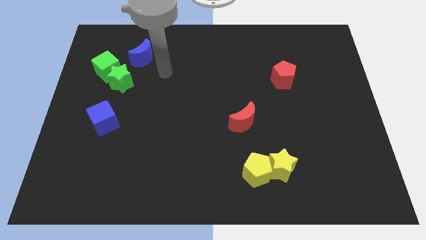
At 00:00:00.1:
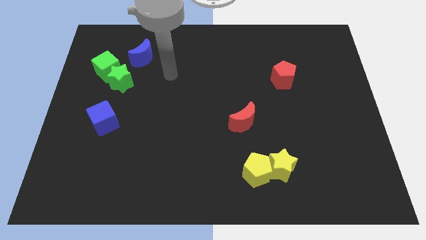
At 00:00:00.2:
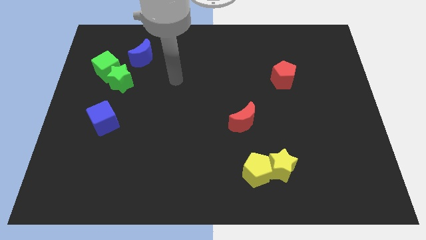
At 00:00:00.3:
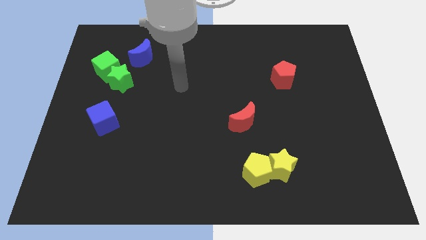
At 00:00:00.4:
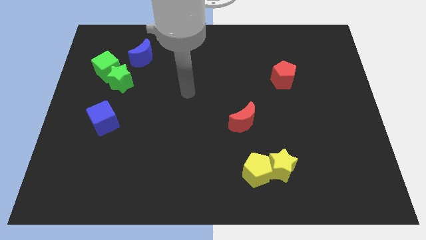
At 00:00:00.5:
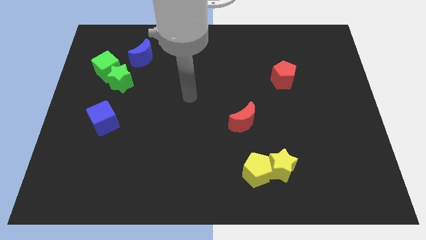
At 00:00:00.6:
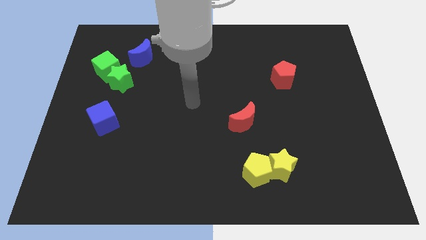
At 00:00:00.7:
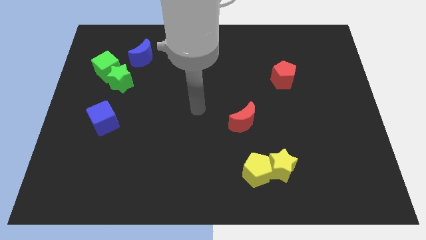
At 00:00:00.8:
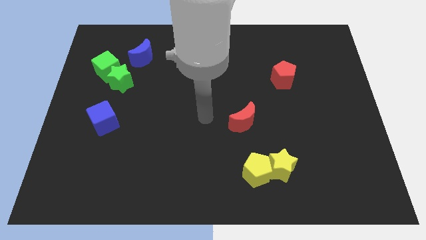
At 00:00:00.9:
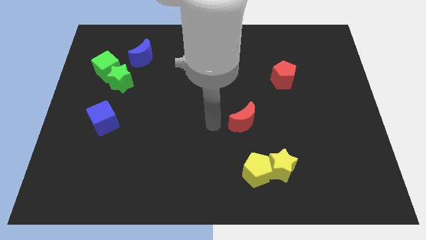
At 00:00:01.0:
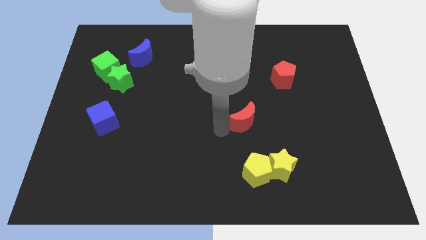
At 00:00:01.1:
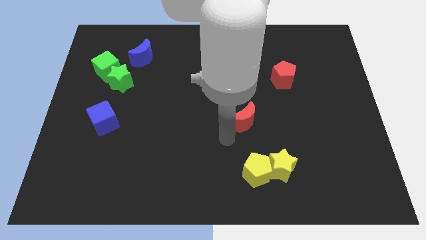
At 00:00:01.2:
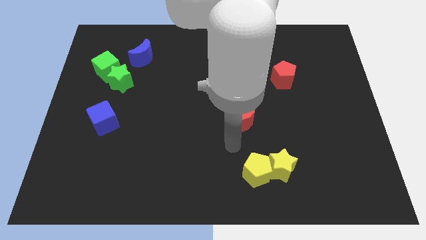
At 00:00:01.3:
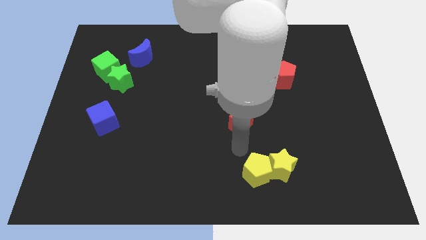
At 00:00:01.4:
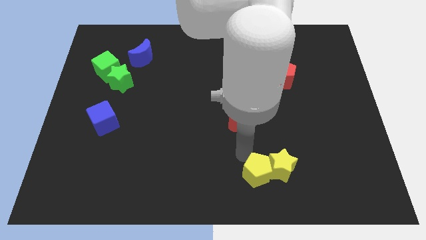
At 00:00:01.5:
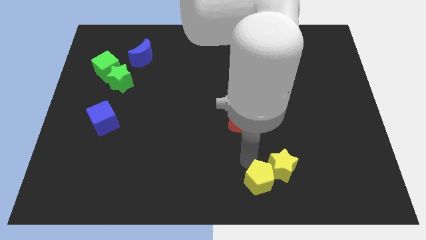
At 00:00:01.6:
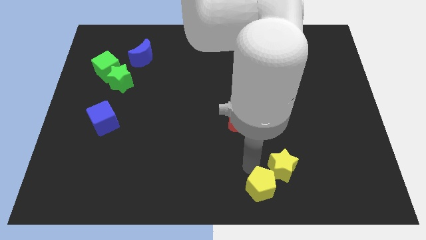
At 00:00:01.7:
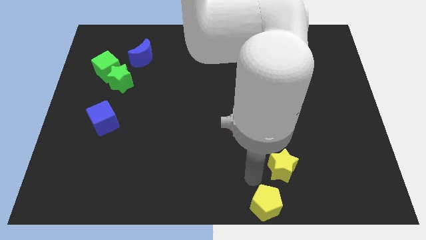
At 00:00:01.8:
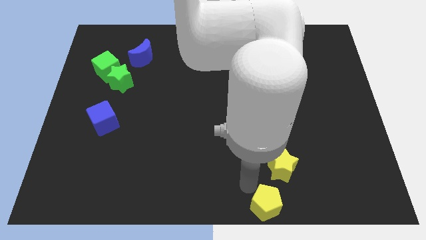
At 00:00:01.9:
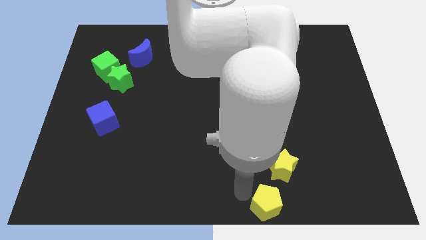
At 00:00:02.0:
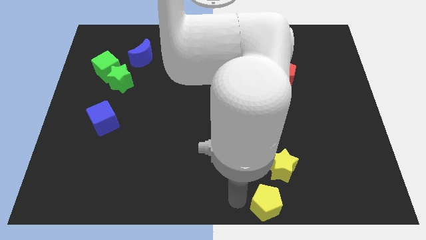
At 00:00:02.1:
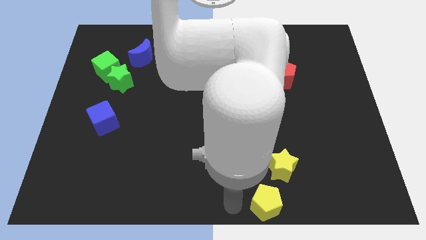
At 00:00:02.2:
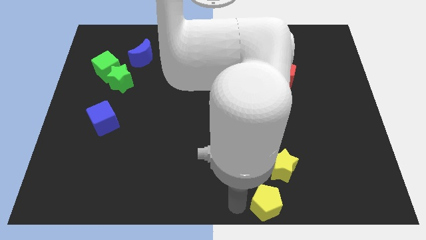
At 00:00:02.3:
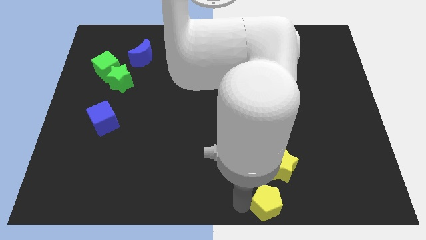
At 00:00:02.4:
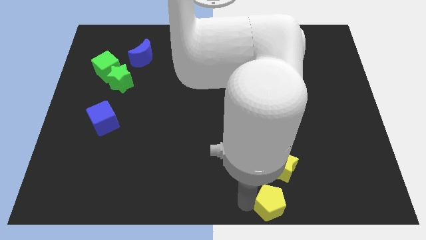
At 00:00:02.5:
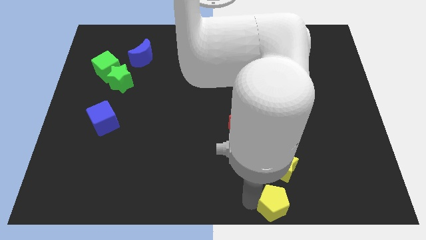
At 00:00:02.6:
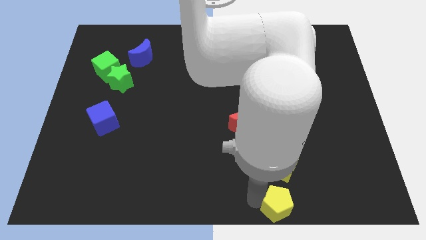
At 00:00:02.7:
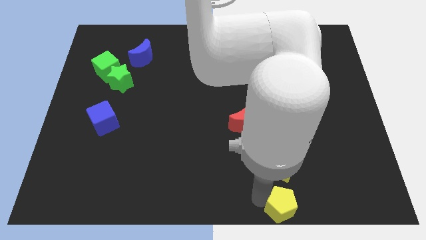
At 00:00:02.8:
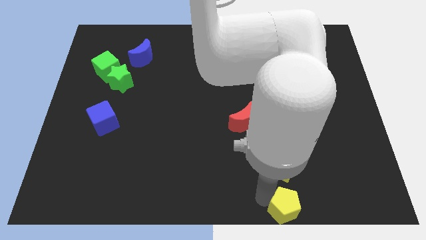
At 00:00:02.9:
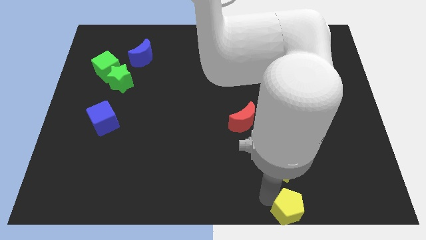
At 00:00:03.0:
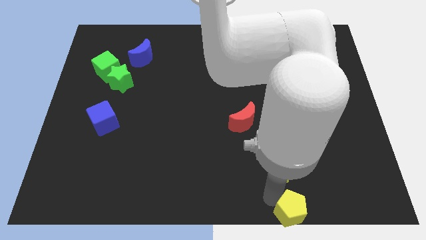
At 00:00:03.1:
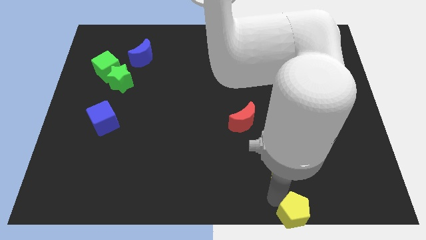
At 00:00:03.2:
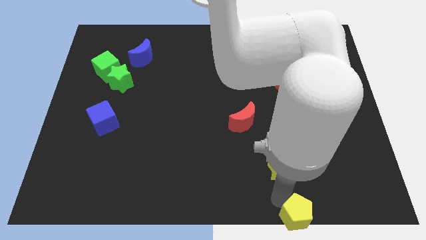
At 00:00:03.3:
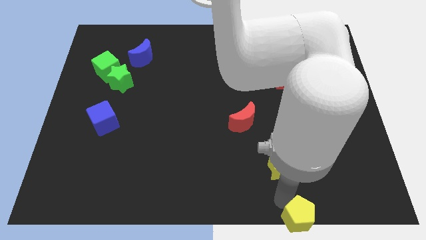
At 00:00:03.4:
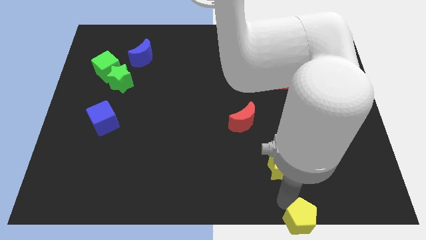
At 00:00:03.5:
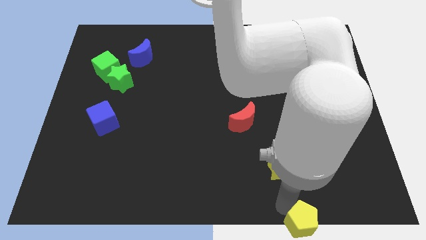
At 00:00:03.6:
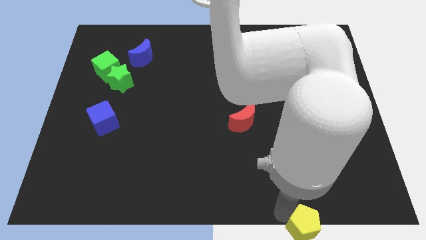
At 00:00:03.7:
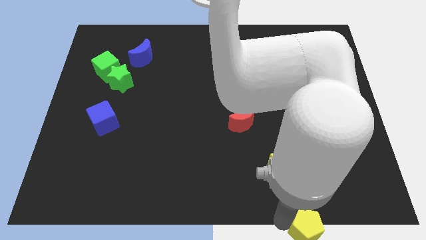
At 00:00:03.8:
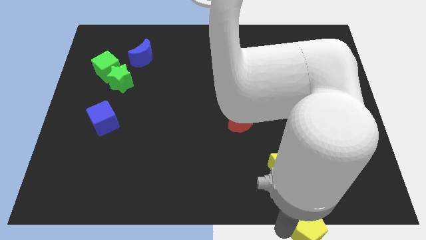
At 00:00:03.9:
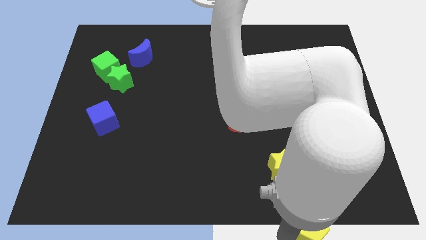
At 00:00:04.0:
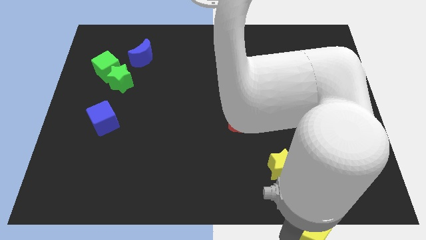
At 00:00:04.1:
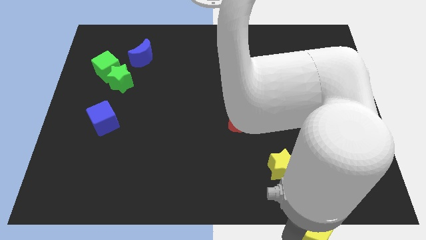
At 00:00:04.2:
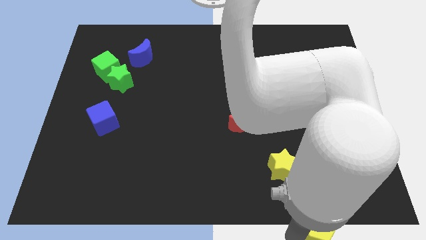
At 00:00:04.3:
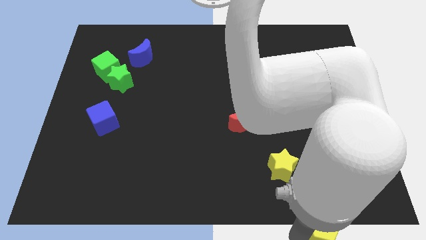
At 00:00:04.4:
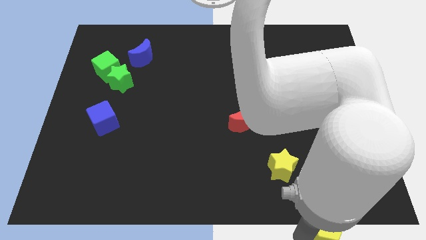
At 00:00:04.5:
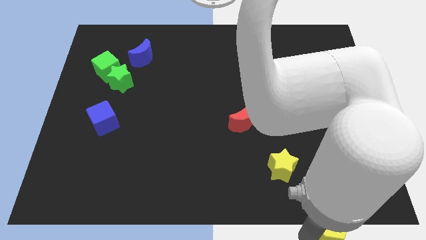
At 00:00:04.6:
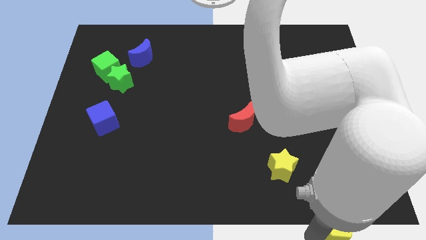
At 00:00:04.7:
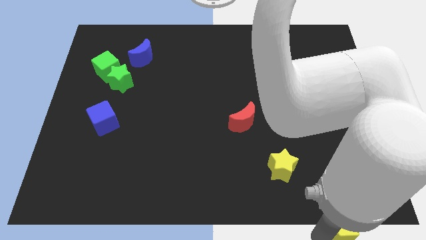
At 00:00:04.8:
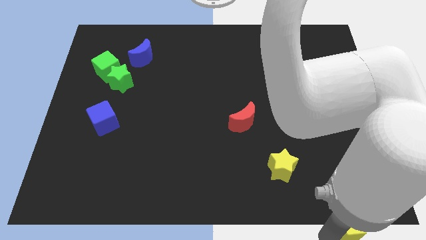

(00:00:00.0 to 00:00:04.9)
put the yellow pentagon to the bottom right

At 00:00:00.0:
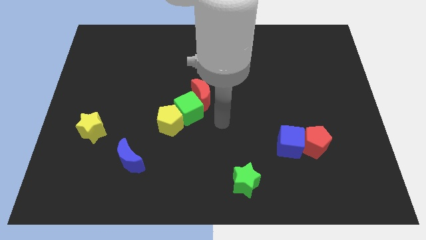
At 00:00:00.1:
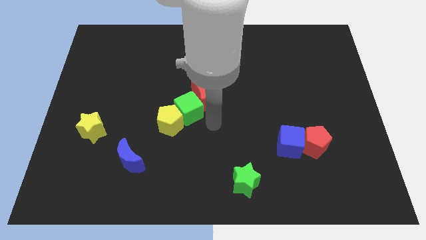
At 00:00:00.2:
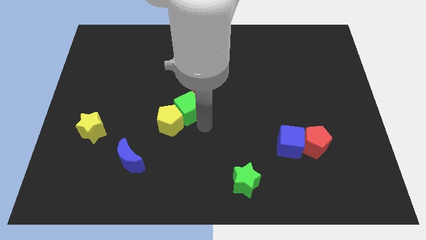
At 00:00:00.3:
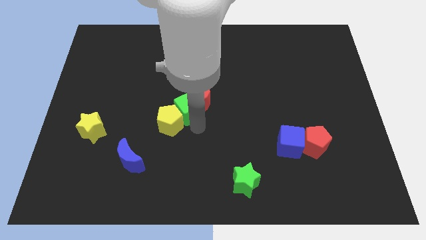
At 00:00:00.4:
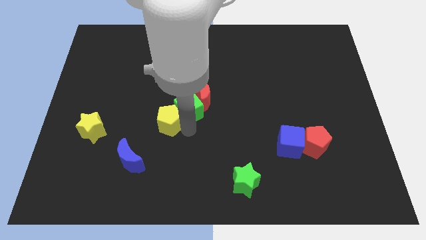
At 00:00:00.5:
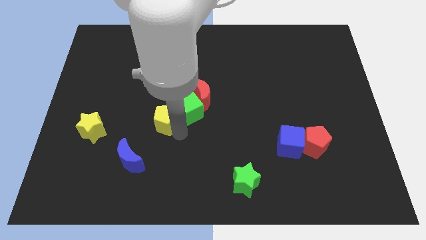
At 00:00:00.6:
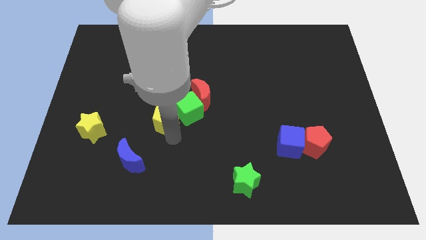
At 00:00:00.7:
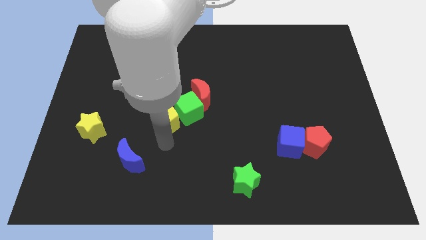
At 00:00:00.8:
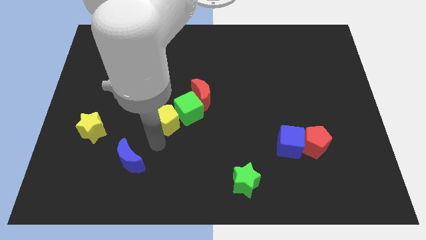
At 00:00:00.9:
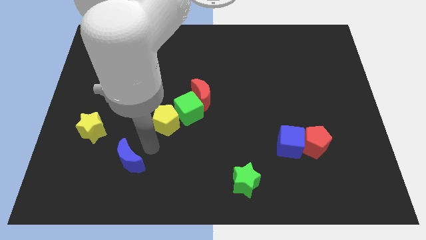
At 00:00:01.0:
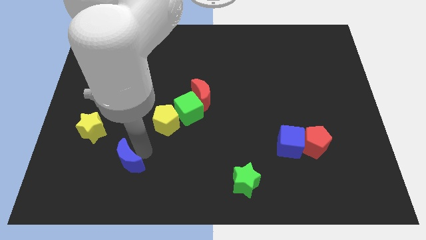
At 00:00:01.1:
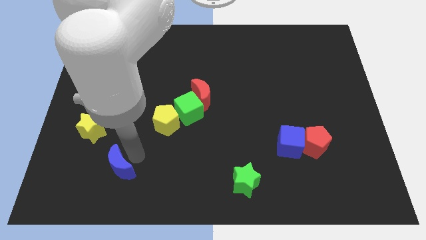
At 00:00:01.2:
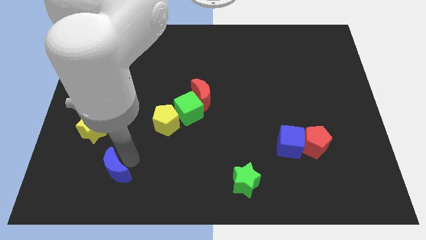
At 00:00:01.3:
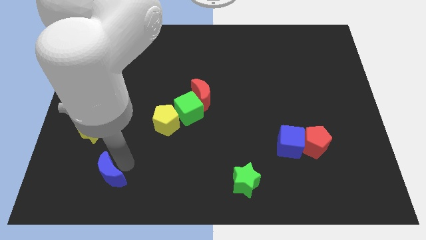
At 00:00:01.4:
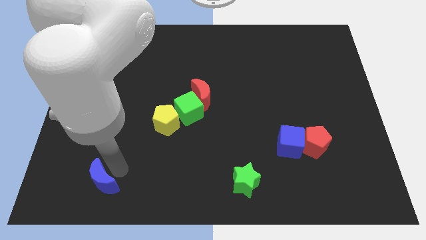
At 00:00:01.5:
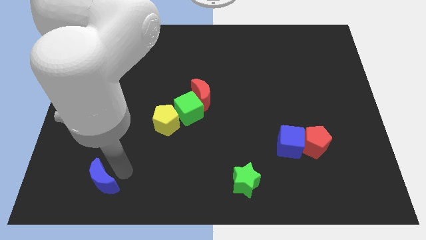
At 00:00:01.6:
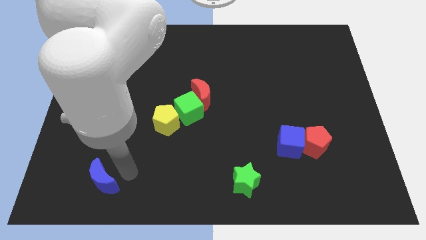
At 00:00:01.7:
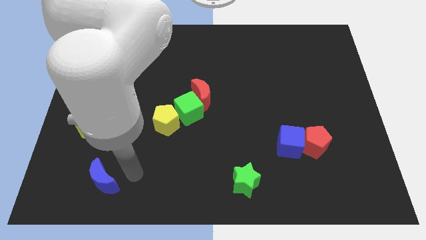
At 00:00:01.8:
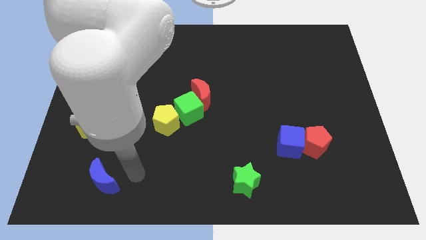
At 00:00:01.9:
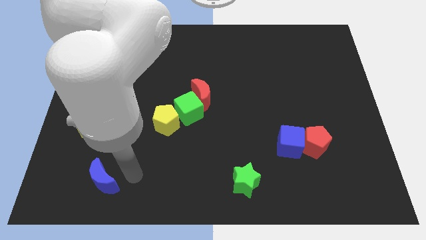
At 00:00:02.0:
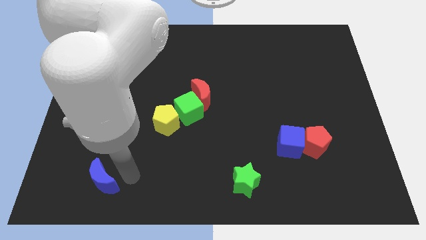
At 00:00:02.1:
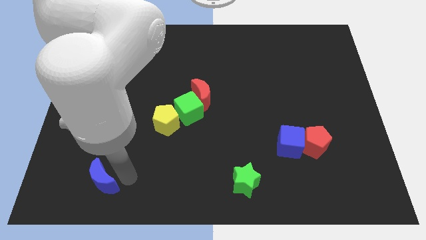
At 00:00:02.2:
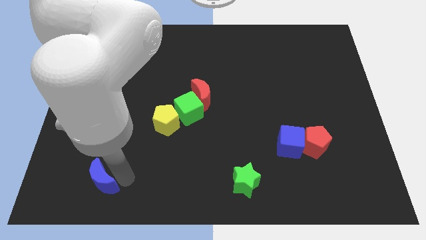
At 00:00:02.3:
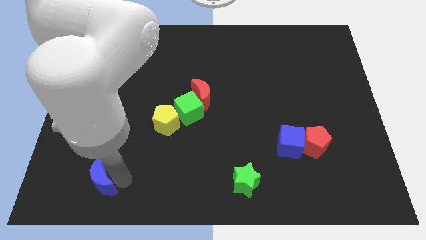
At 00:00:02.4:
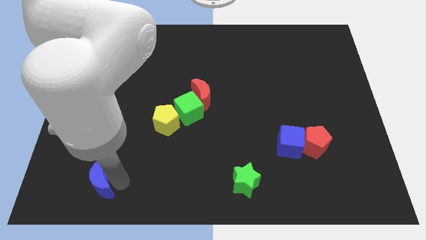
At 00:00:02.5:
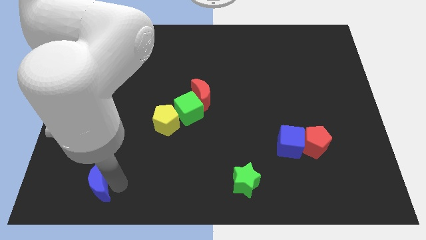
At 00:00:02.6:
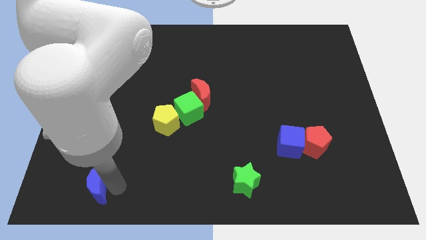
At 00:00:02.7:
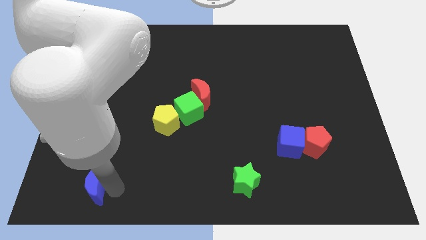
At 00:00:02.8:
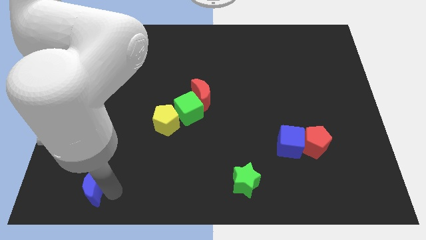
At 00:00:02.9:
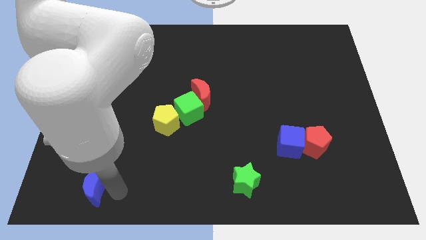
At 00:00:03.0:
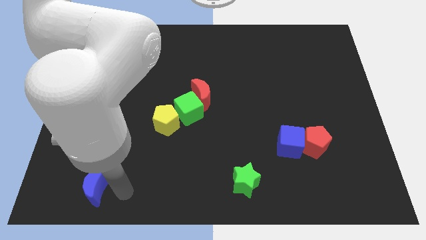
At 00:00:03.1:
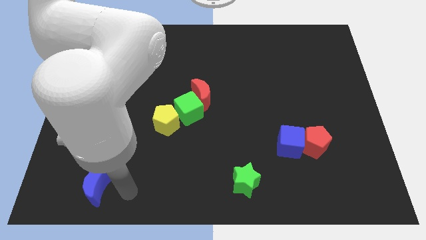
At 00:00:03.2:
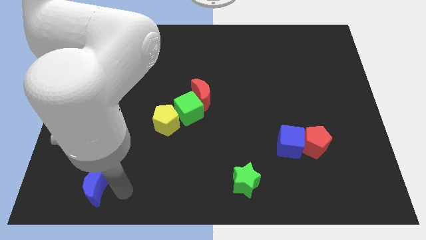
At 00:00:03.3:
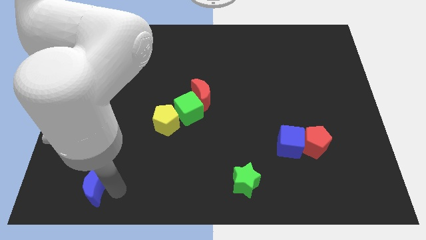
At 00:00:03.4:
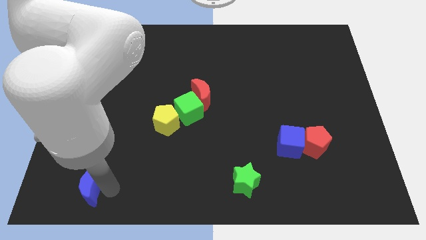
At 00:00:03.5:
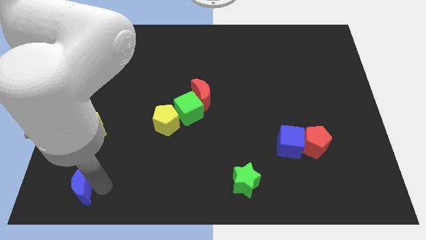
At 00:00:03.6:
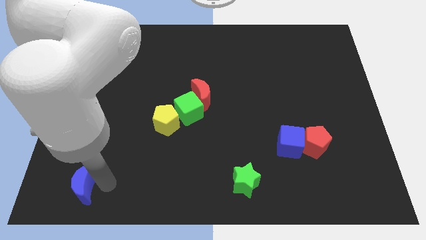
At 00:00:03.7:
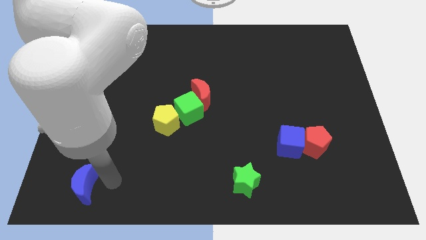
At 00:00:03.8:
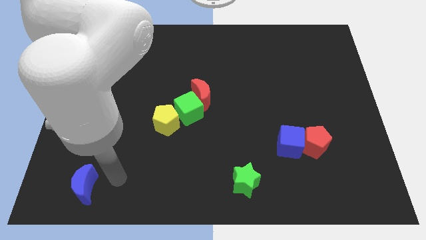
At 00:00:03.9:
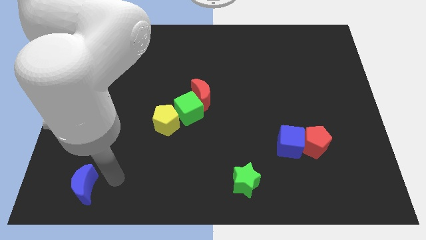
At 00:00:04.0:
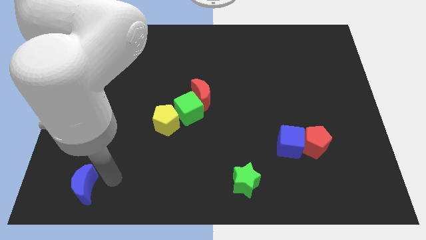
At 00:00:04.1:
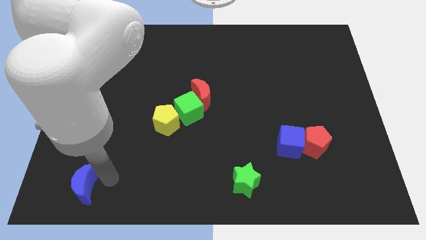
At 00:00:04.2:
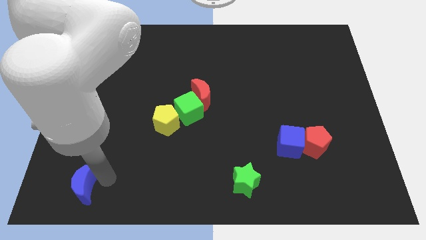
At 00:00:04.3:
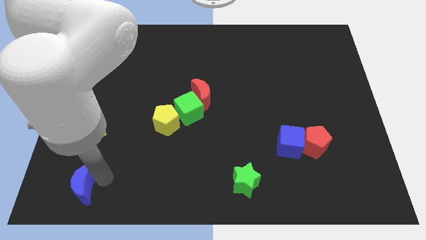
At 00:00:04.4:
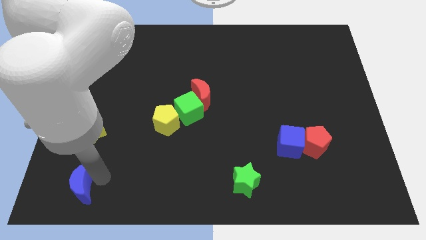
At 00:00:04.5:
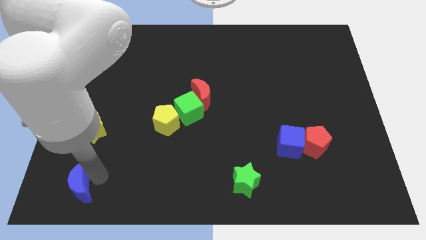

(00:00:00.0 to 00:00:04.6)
push the blue moon to the lower left corner
